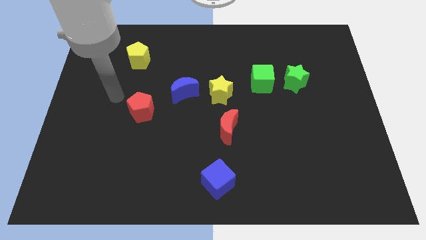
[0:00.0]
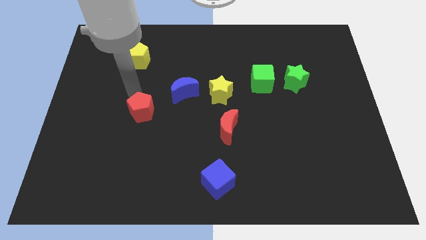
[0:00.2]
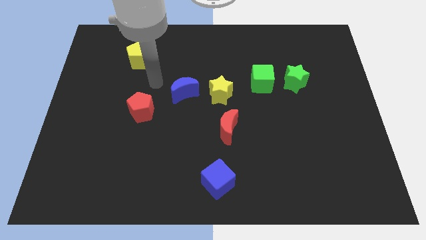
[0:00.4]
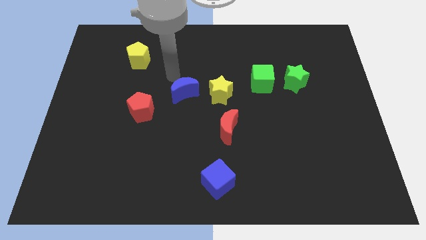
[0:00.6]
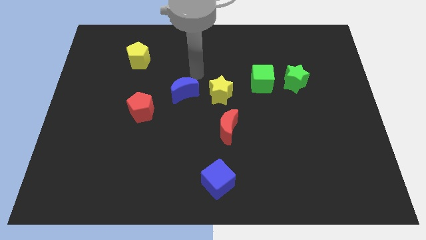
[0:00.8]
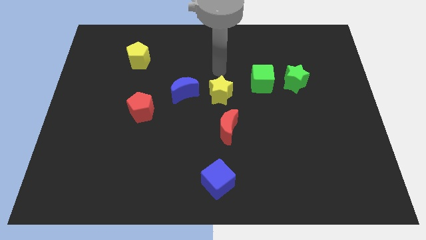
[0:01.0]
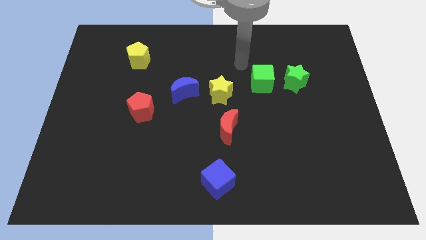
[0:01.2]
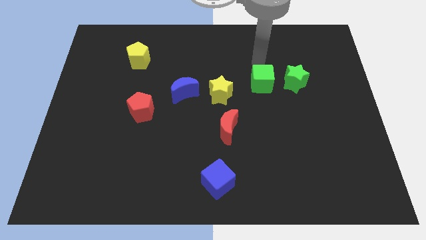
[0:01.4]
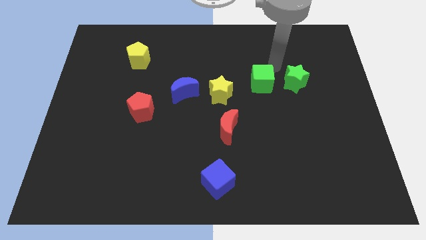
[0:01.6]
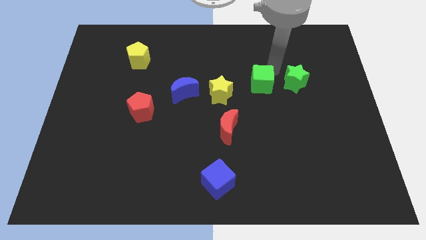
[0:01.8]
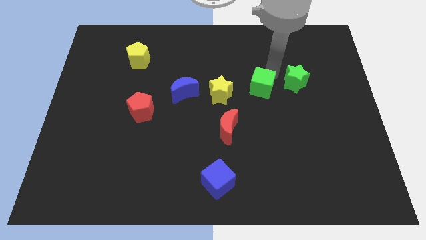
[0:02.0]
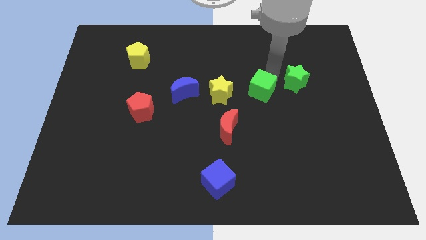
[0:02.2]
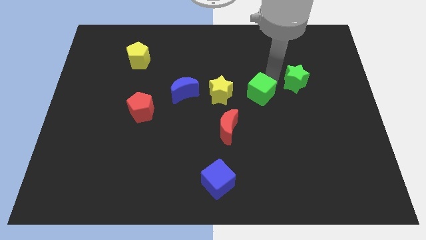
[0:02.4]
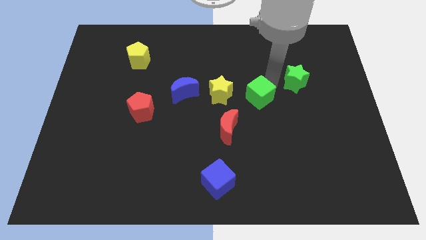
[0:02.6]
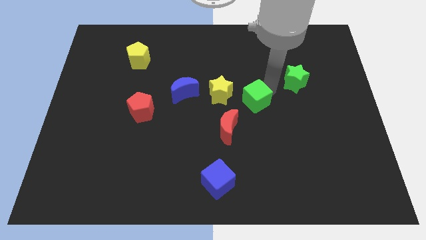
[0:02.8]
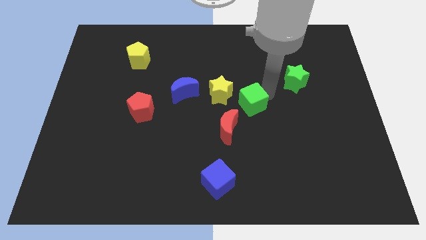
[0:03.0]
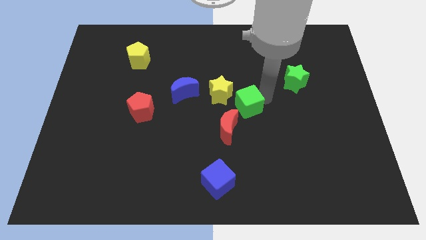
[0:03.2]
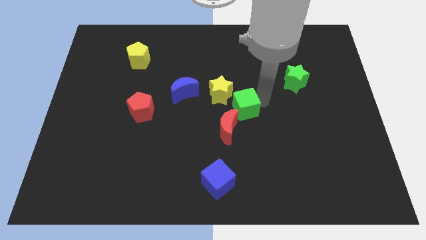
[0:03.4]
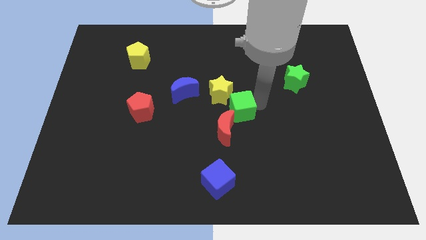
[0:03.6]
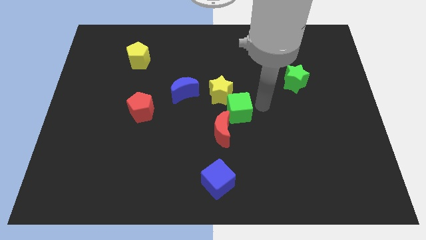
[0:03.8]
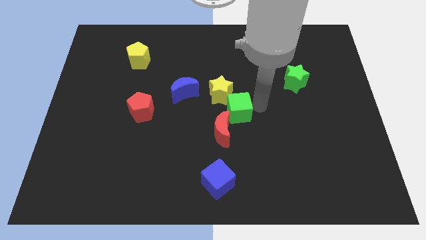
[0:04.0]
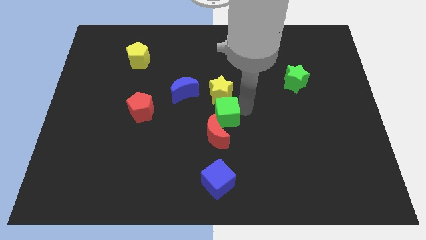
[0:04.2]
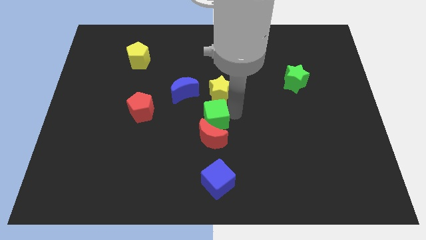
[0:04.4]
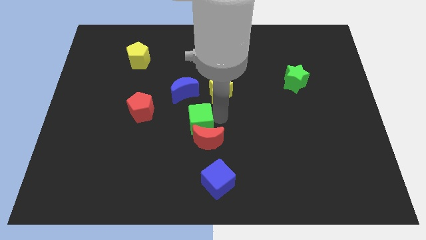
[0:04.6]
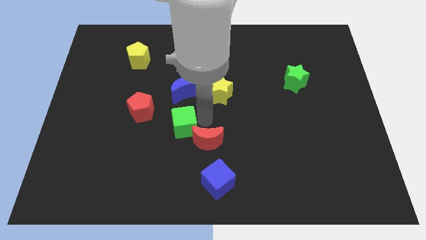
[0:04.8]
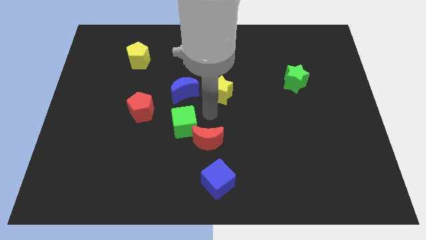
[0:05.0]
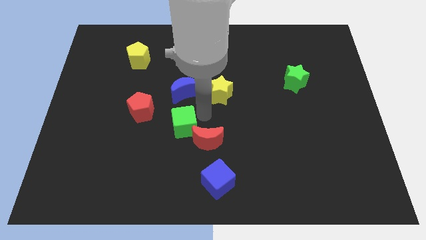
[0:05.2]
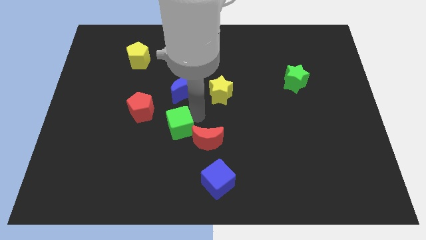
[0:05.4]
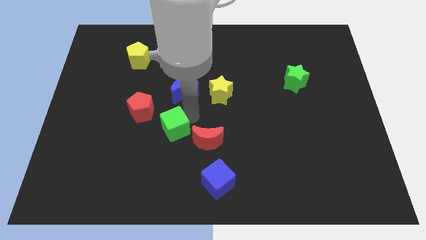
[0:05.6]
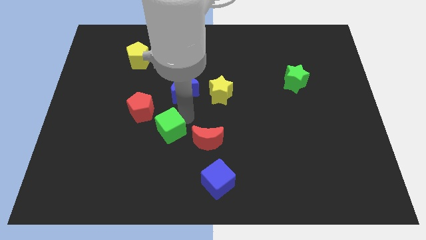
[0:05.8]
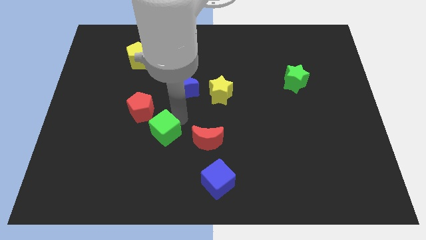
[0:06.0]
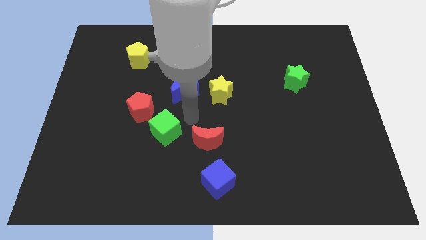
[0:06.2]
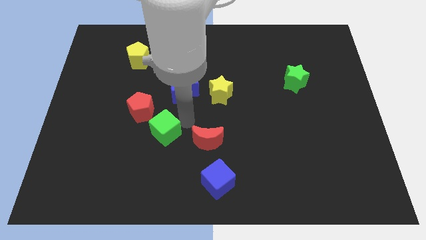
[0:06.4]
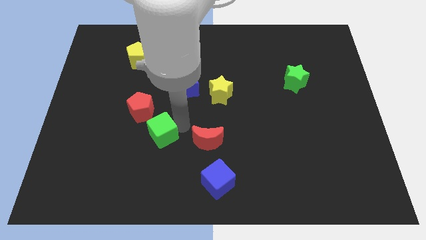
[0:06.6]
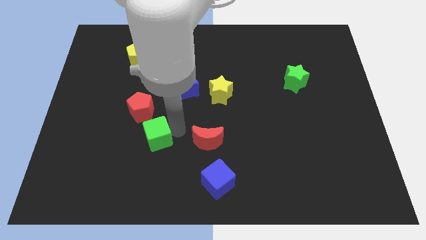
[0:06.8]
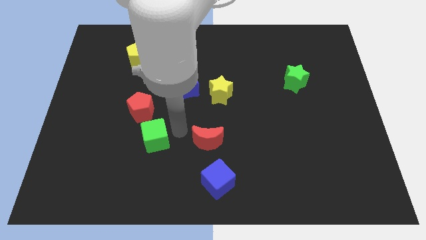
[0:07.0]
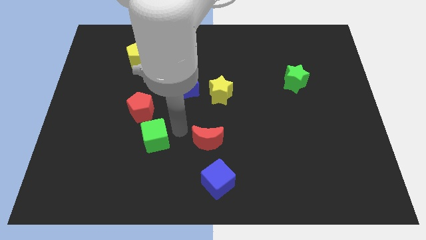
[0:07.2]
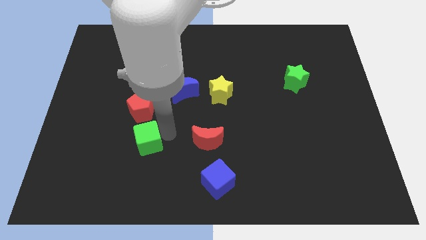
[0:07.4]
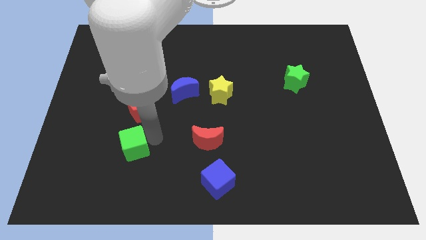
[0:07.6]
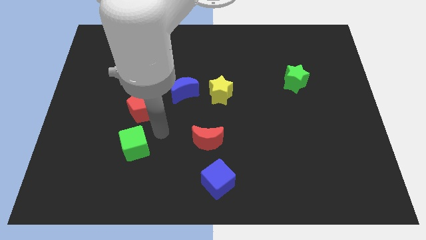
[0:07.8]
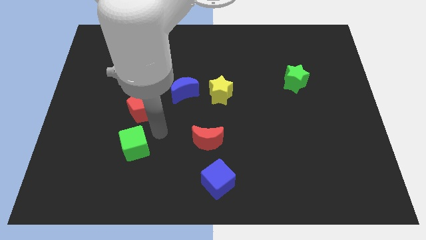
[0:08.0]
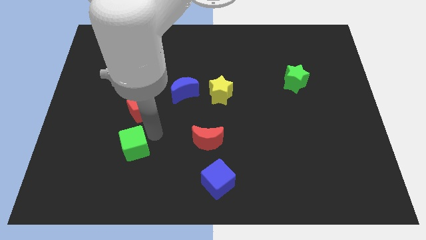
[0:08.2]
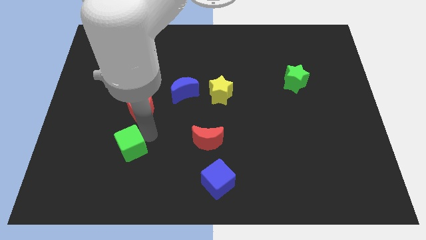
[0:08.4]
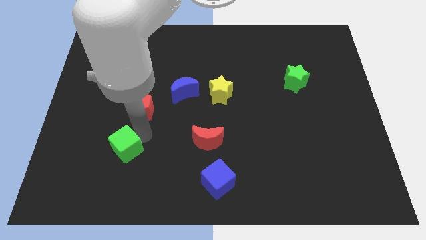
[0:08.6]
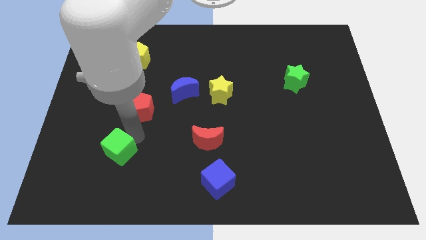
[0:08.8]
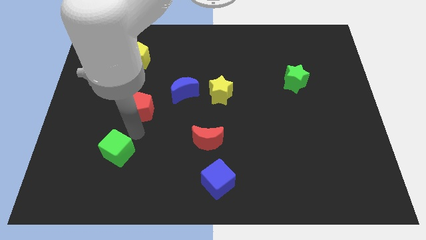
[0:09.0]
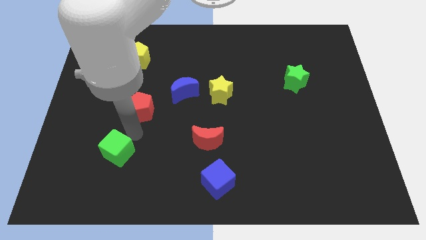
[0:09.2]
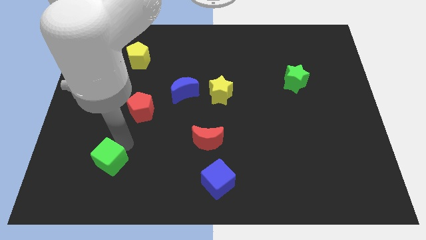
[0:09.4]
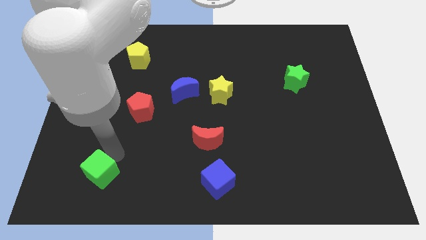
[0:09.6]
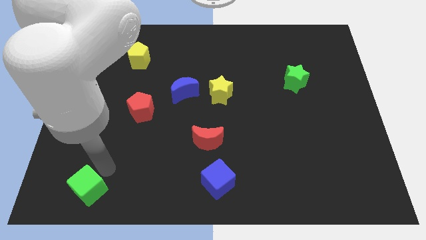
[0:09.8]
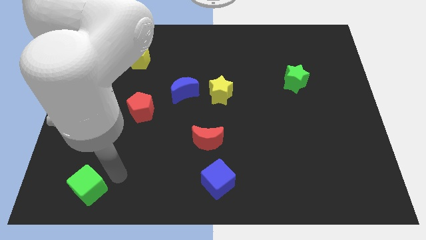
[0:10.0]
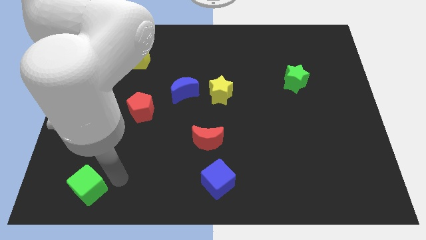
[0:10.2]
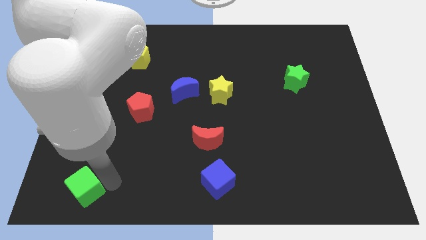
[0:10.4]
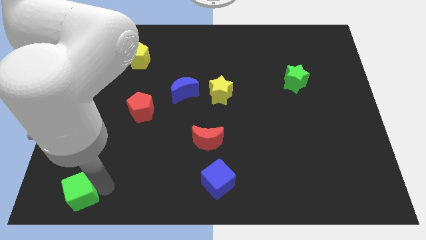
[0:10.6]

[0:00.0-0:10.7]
slide the green cube to the bottom left of the board
